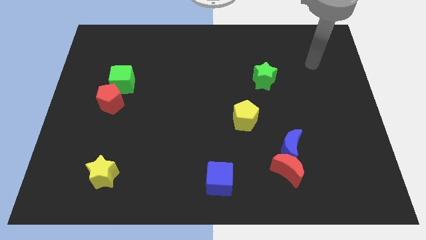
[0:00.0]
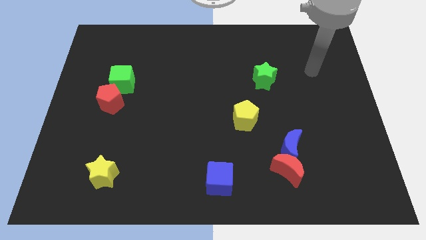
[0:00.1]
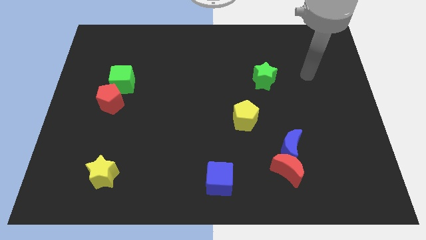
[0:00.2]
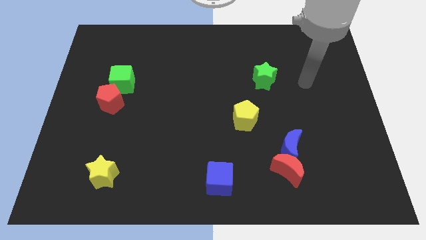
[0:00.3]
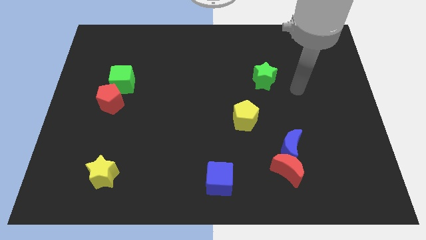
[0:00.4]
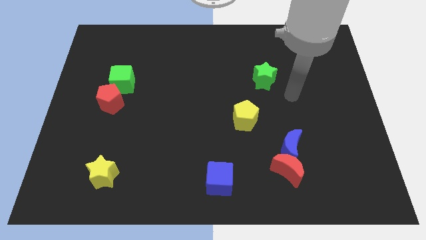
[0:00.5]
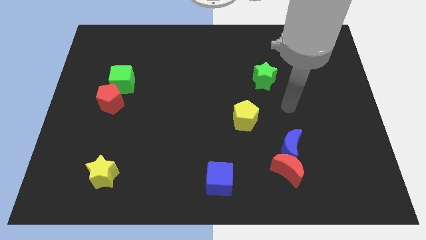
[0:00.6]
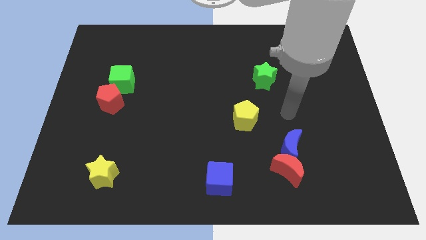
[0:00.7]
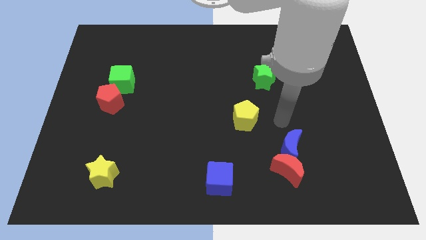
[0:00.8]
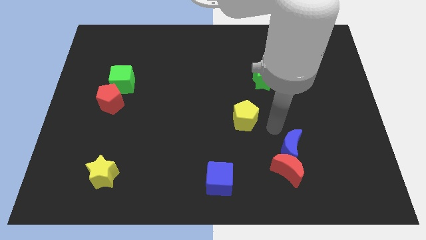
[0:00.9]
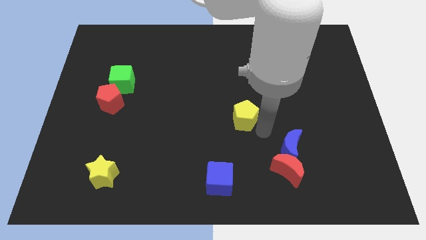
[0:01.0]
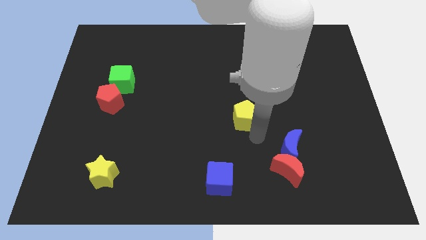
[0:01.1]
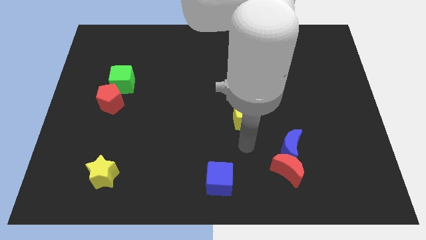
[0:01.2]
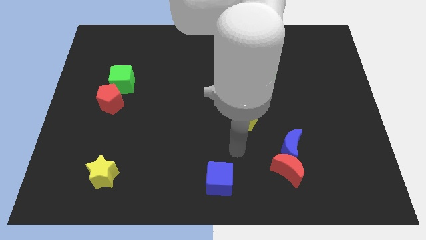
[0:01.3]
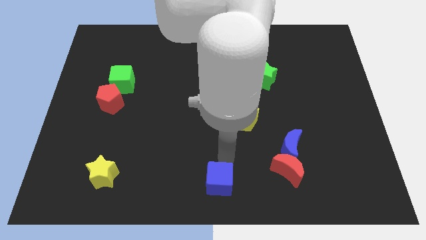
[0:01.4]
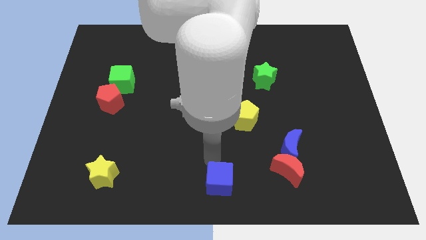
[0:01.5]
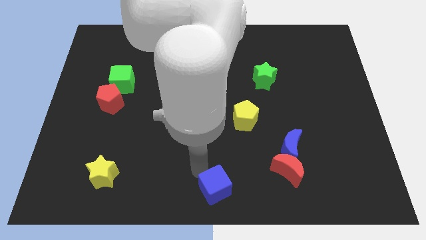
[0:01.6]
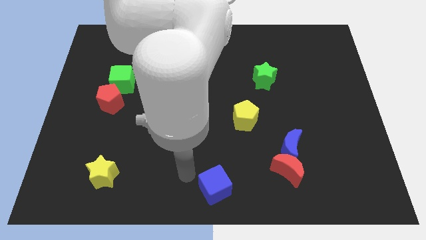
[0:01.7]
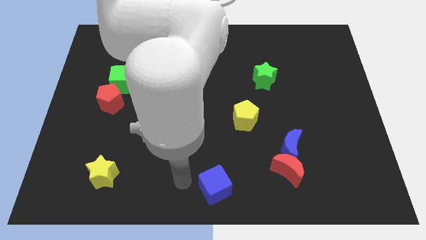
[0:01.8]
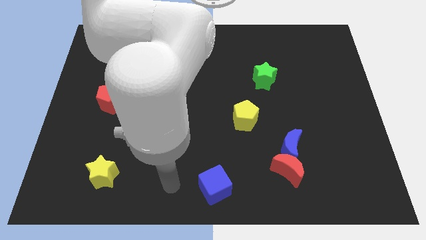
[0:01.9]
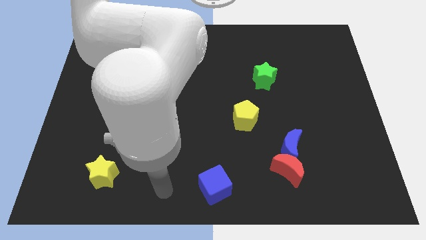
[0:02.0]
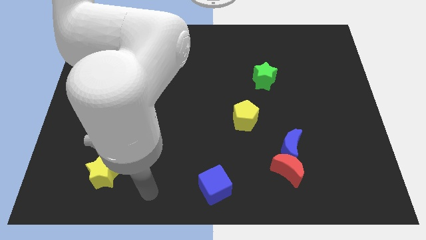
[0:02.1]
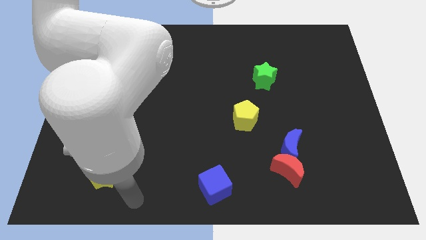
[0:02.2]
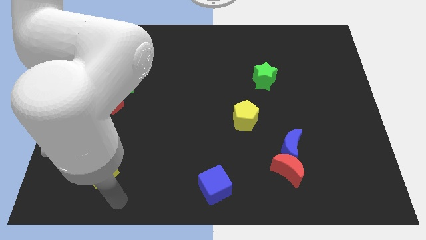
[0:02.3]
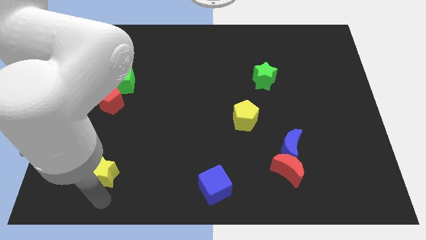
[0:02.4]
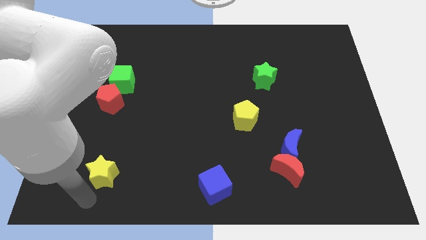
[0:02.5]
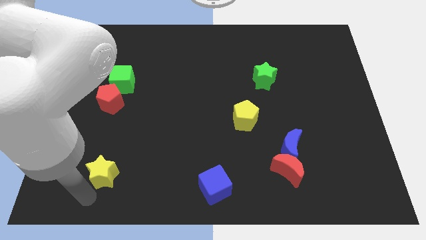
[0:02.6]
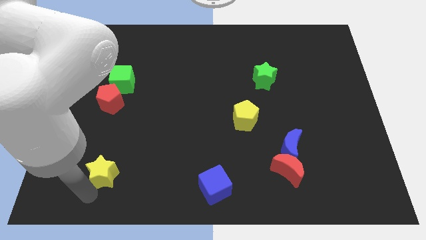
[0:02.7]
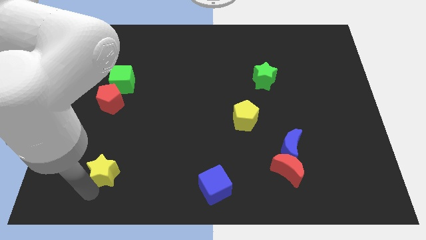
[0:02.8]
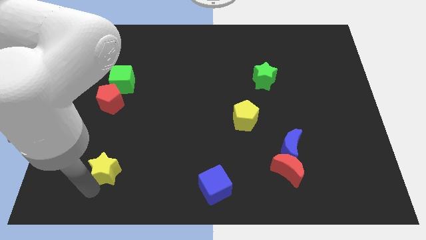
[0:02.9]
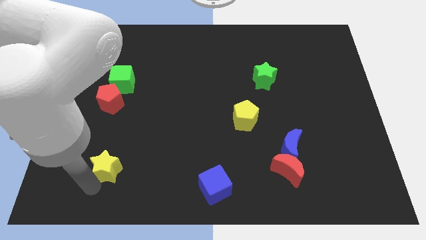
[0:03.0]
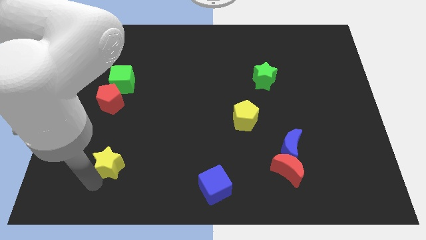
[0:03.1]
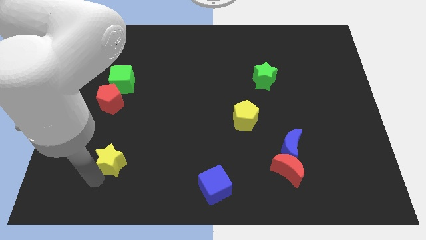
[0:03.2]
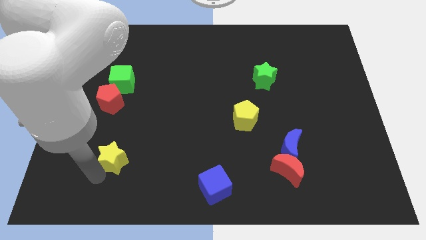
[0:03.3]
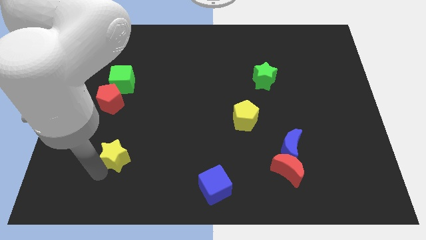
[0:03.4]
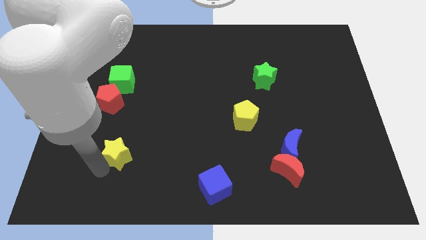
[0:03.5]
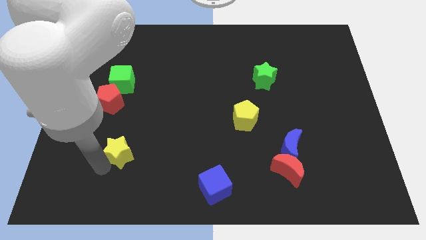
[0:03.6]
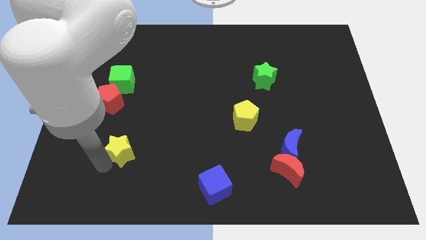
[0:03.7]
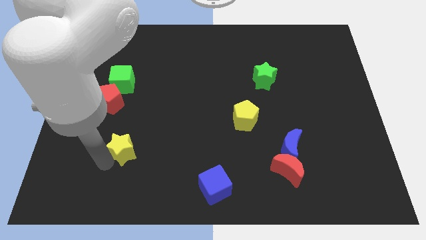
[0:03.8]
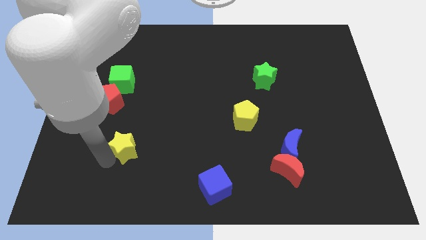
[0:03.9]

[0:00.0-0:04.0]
slightly move the yellow star upwards and then to the right

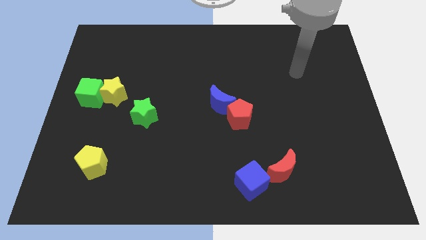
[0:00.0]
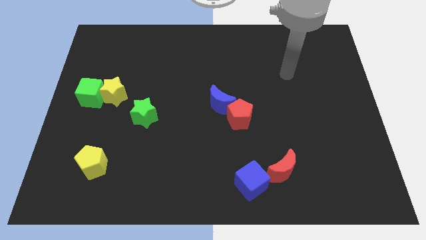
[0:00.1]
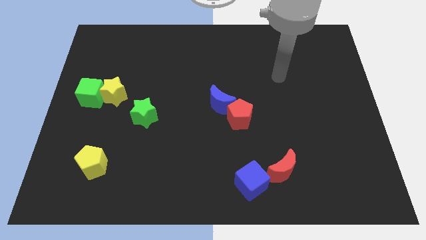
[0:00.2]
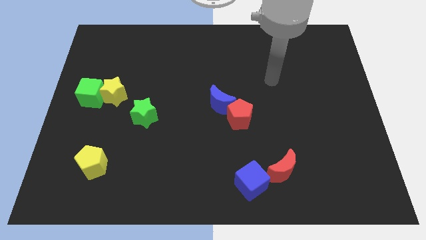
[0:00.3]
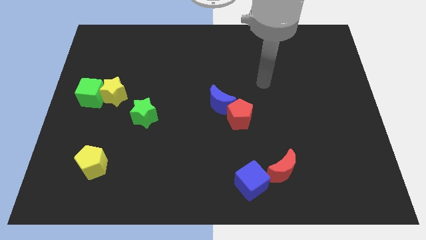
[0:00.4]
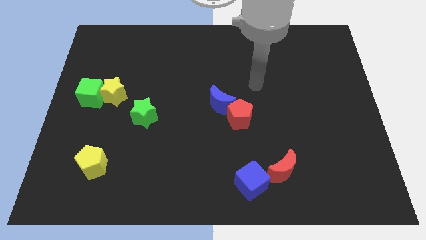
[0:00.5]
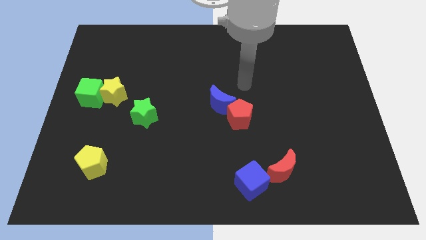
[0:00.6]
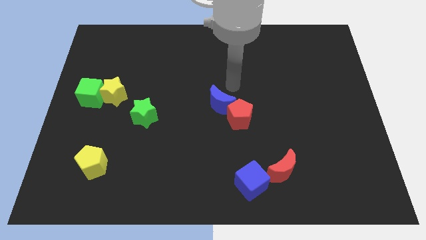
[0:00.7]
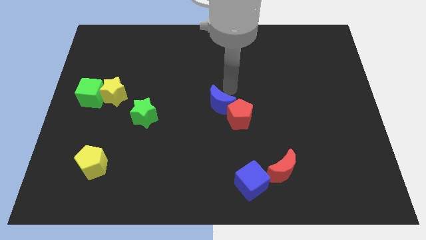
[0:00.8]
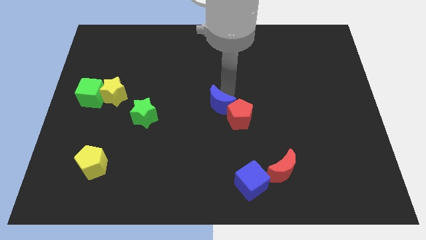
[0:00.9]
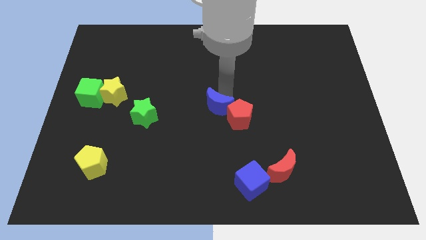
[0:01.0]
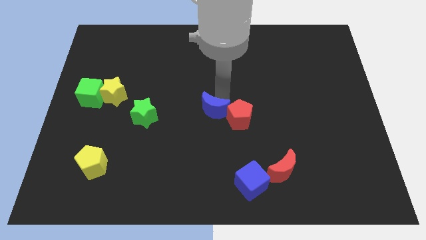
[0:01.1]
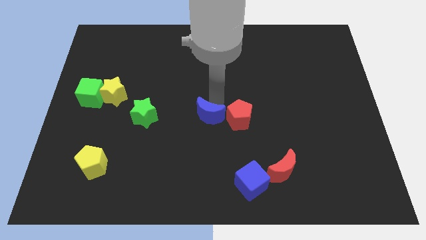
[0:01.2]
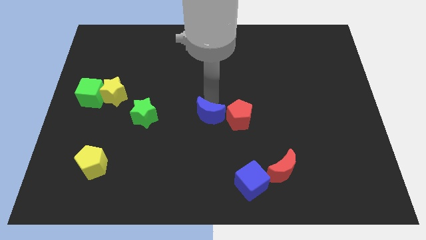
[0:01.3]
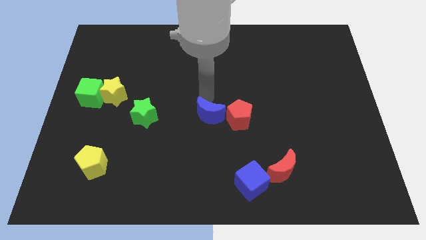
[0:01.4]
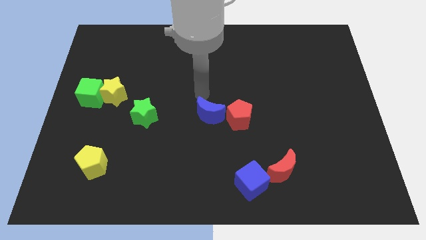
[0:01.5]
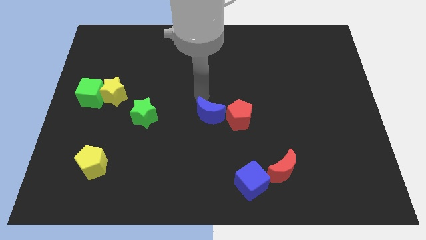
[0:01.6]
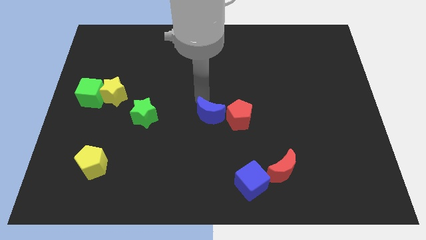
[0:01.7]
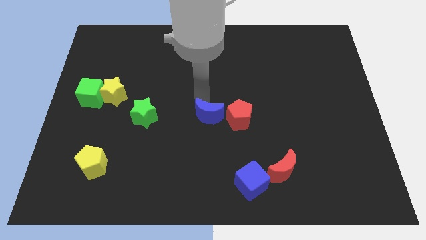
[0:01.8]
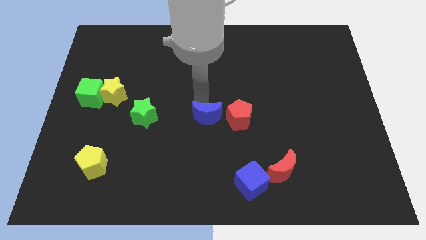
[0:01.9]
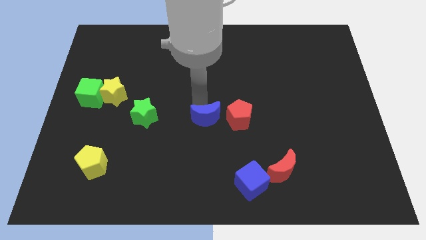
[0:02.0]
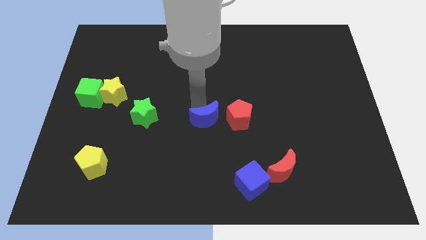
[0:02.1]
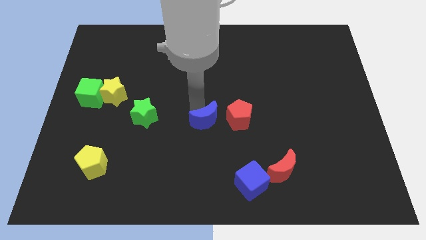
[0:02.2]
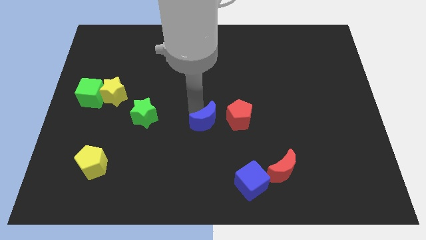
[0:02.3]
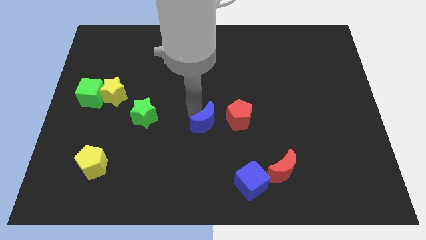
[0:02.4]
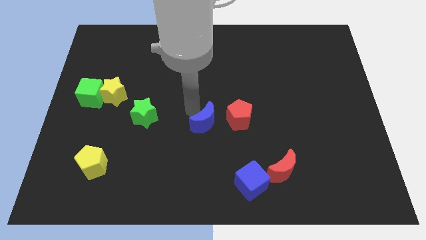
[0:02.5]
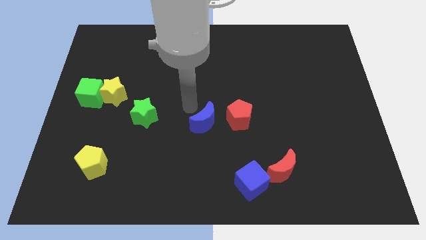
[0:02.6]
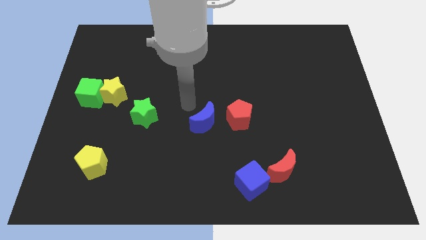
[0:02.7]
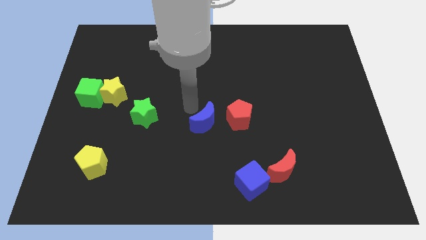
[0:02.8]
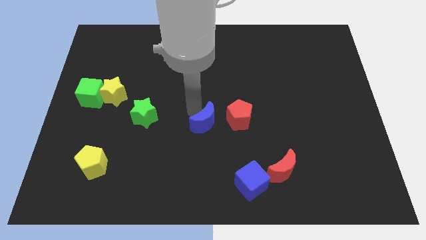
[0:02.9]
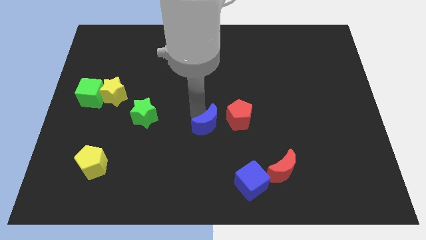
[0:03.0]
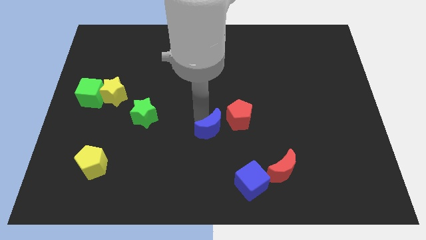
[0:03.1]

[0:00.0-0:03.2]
push the blue moon downwards slightly

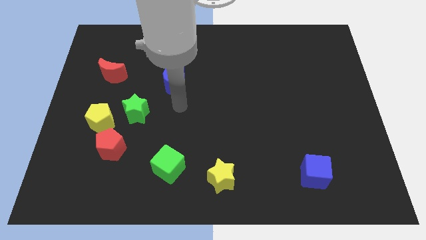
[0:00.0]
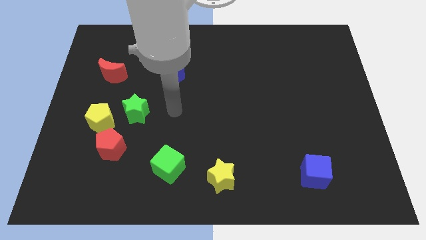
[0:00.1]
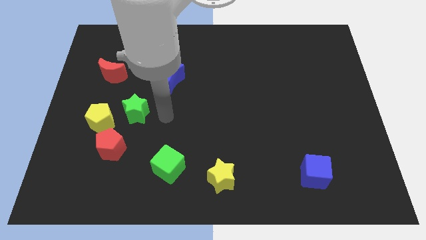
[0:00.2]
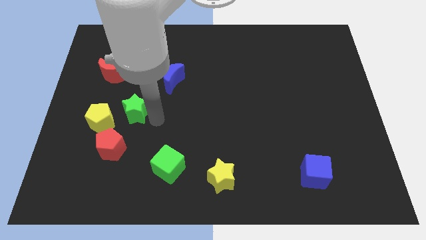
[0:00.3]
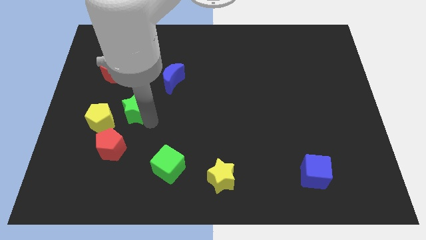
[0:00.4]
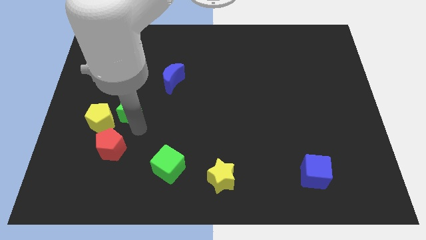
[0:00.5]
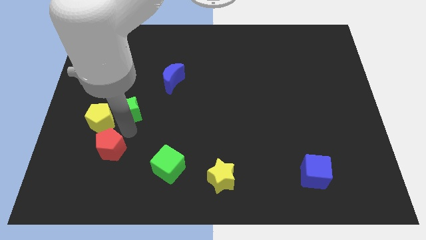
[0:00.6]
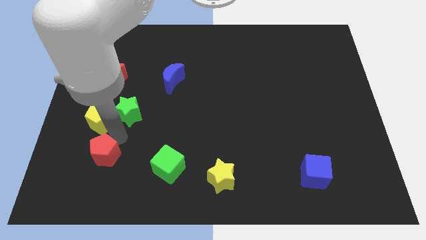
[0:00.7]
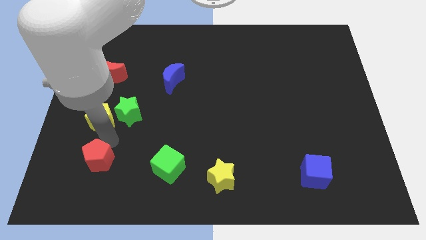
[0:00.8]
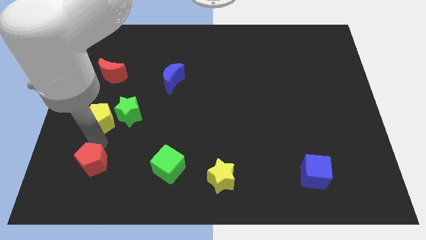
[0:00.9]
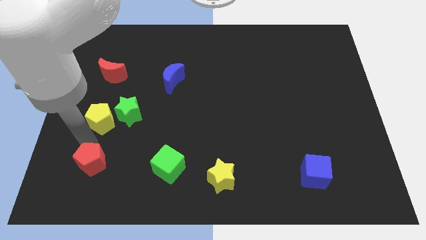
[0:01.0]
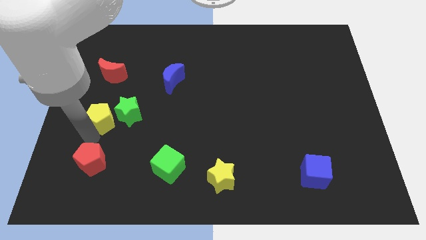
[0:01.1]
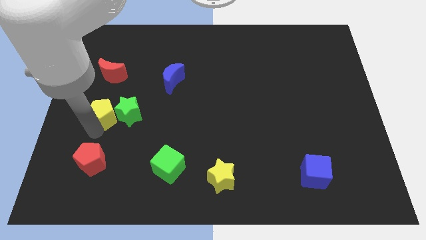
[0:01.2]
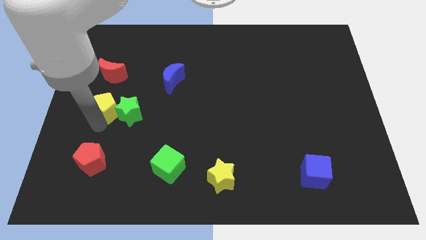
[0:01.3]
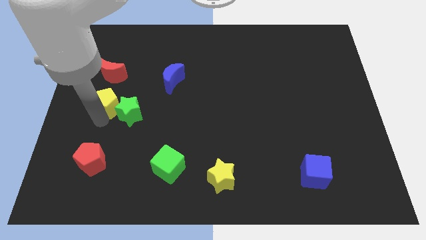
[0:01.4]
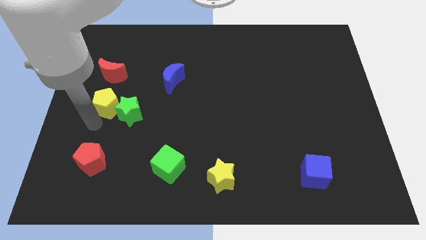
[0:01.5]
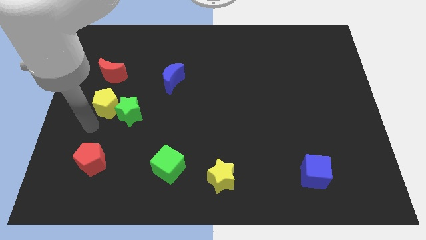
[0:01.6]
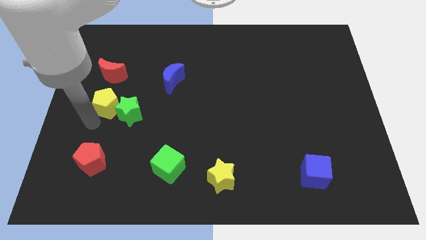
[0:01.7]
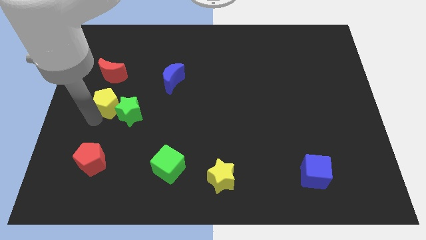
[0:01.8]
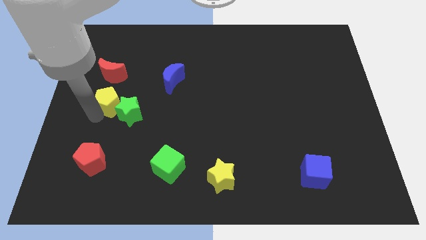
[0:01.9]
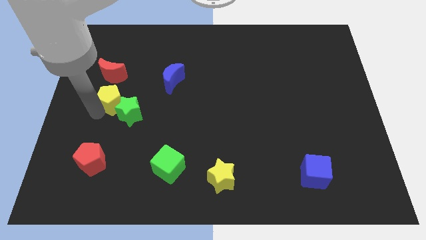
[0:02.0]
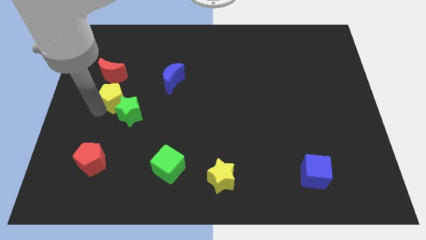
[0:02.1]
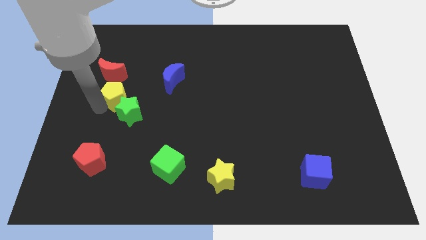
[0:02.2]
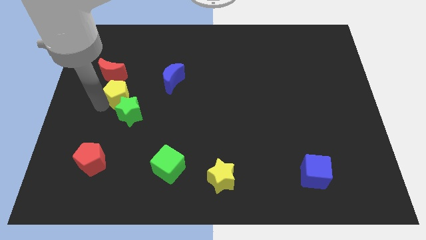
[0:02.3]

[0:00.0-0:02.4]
push the yellow pentagon upwards somewhat
